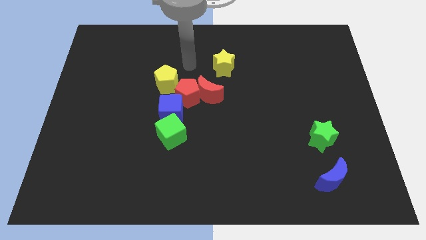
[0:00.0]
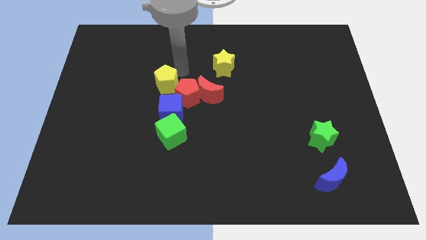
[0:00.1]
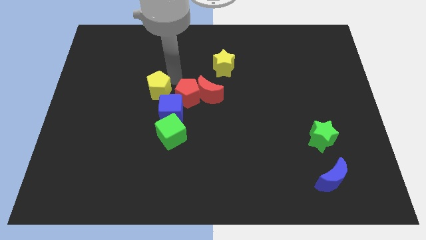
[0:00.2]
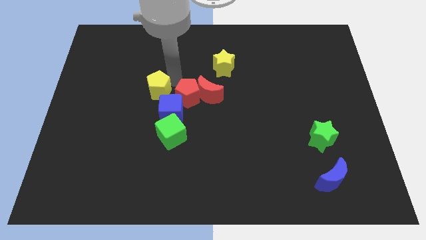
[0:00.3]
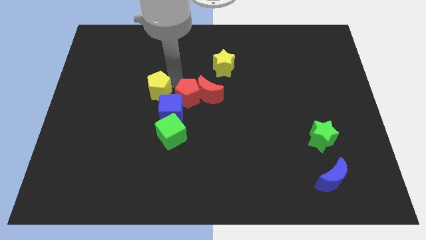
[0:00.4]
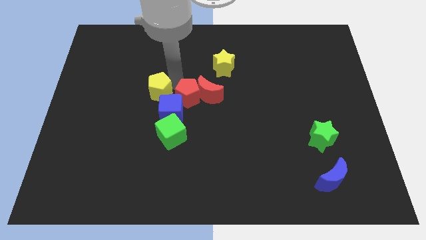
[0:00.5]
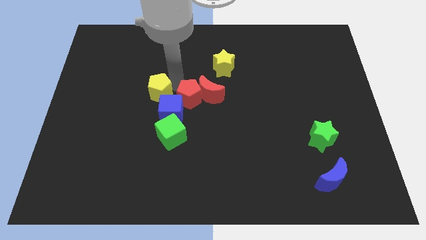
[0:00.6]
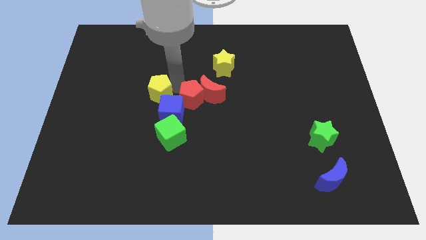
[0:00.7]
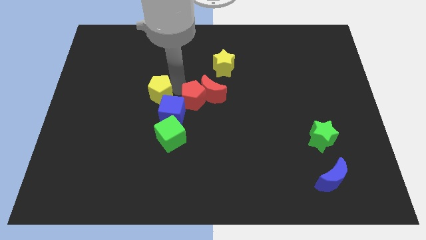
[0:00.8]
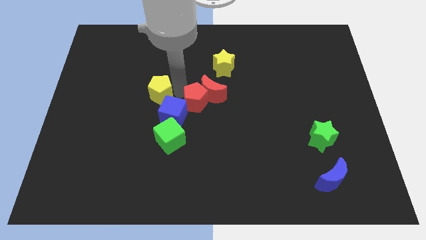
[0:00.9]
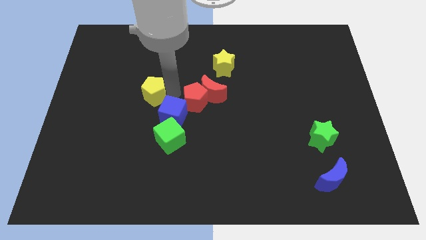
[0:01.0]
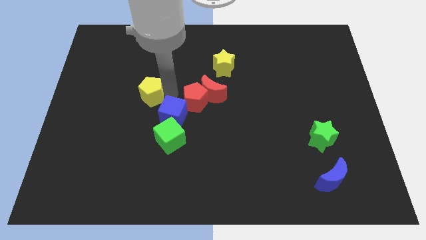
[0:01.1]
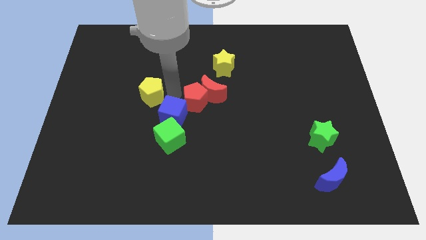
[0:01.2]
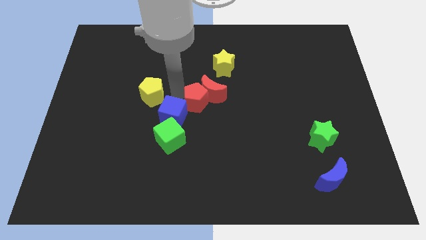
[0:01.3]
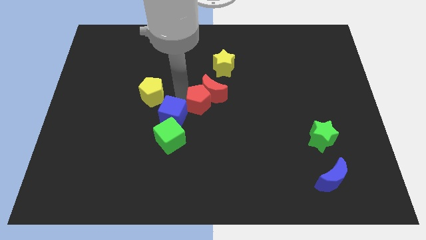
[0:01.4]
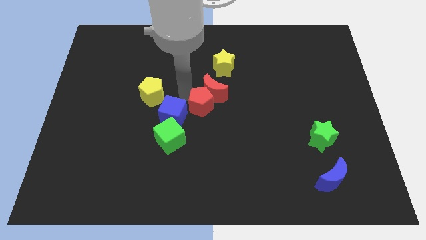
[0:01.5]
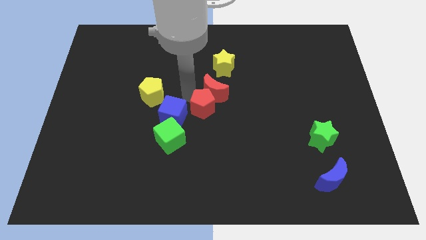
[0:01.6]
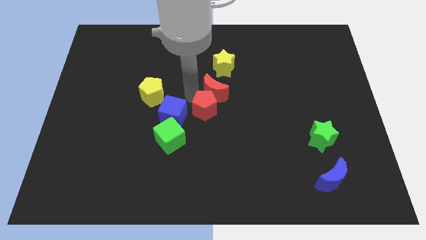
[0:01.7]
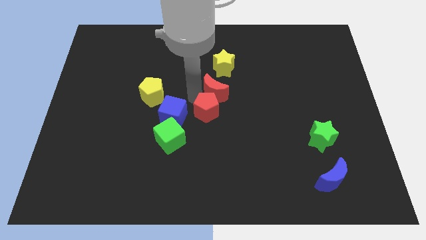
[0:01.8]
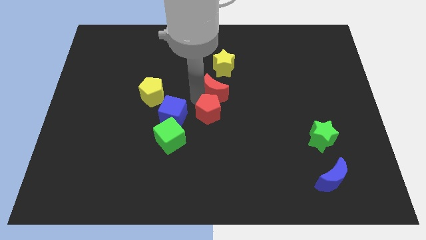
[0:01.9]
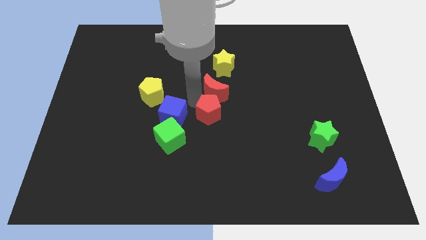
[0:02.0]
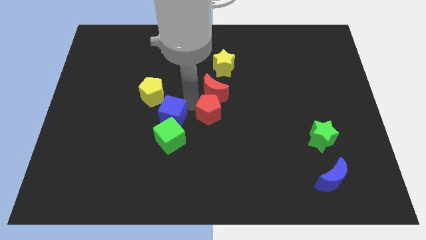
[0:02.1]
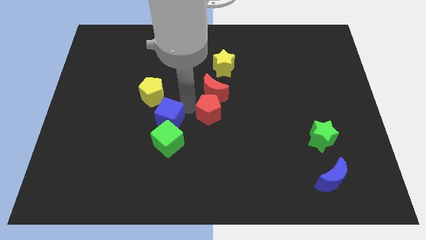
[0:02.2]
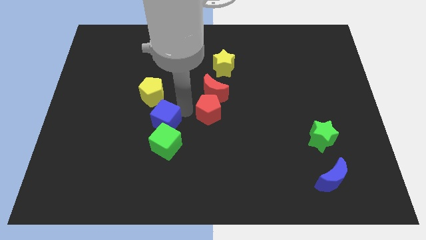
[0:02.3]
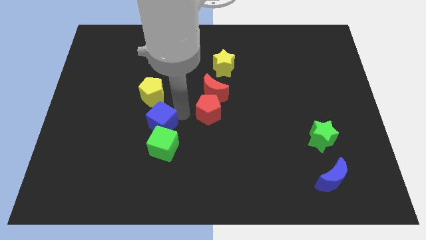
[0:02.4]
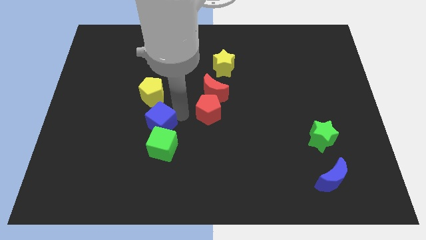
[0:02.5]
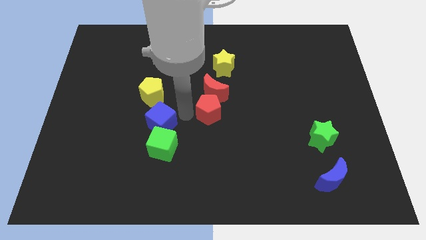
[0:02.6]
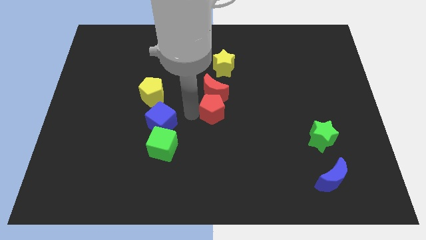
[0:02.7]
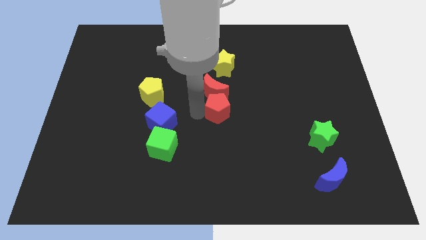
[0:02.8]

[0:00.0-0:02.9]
move the red pentagon away from the clump

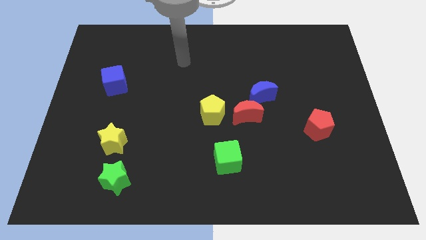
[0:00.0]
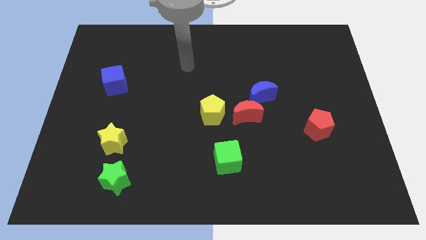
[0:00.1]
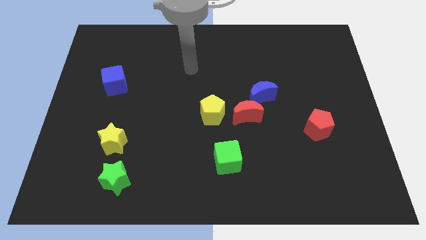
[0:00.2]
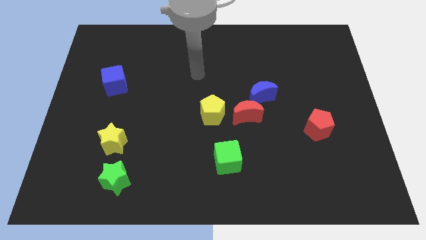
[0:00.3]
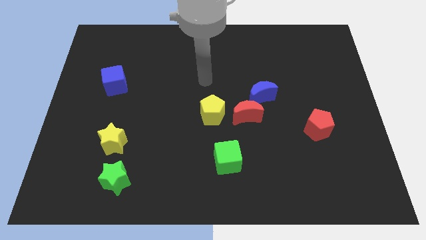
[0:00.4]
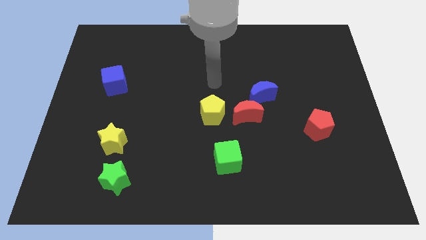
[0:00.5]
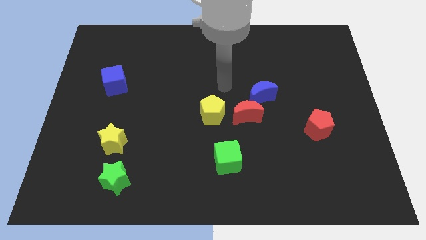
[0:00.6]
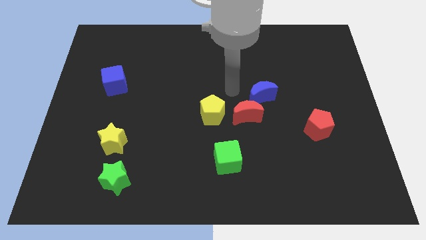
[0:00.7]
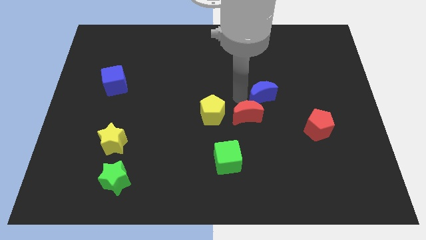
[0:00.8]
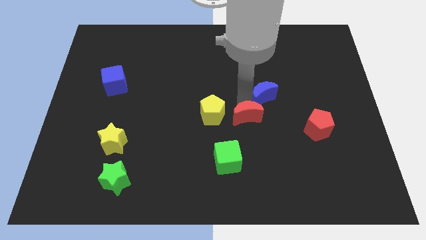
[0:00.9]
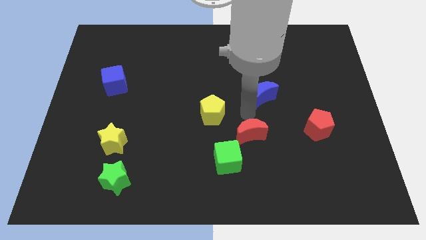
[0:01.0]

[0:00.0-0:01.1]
pull the blue moon apart from the red moon

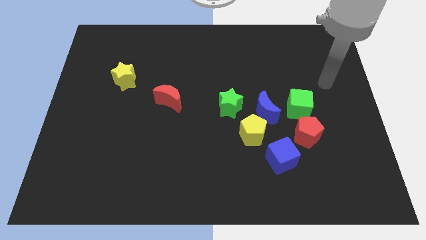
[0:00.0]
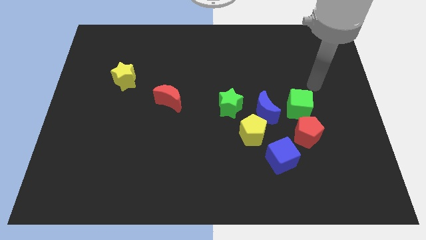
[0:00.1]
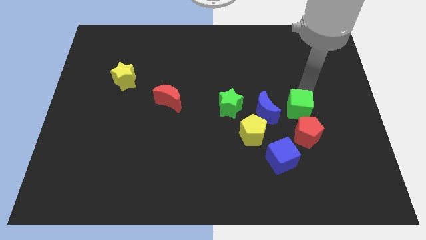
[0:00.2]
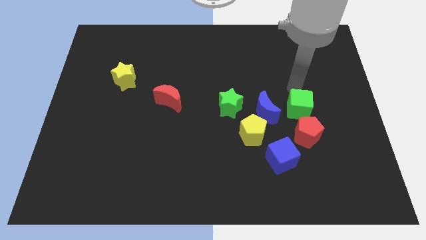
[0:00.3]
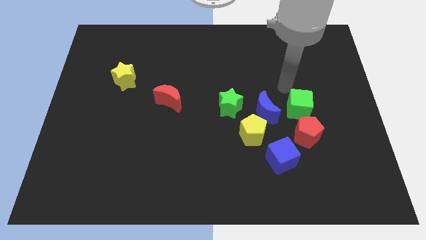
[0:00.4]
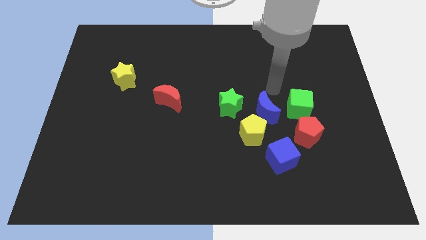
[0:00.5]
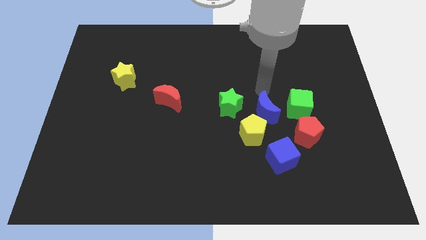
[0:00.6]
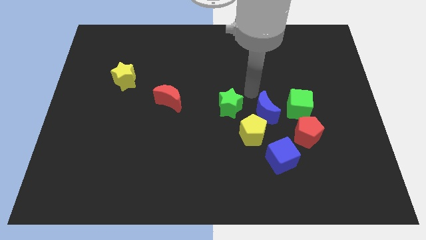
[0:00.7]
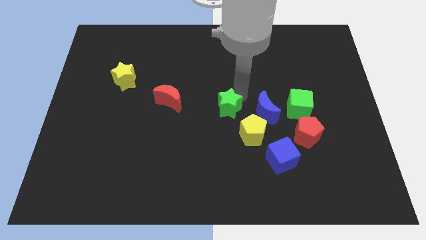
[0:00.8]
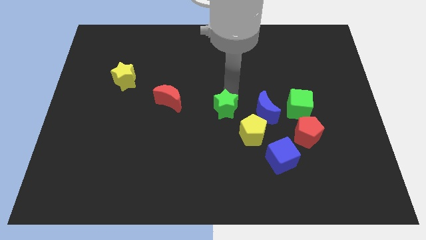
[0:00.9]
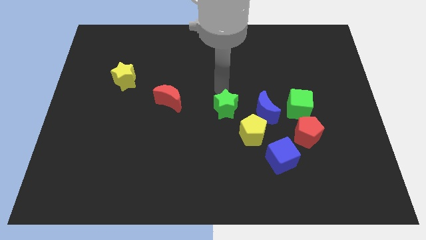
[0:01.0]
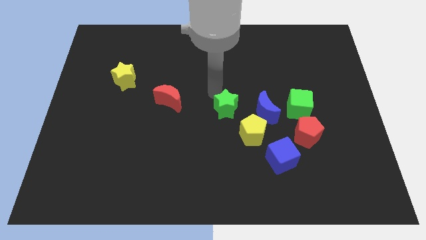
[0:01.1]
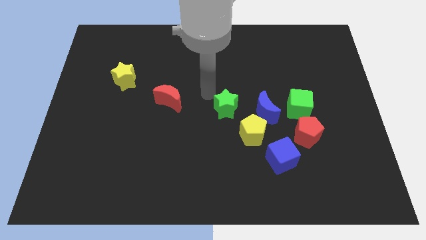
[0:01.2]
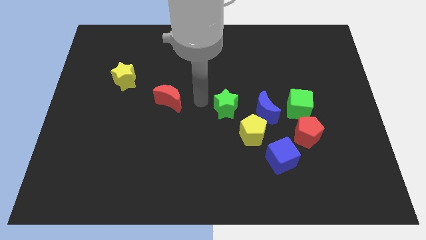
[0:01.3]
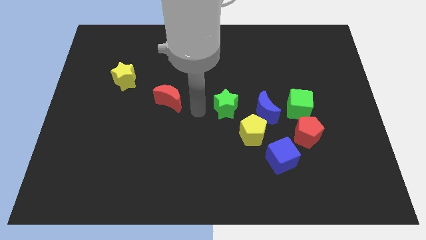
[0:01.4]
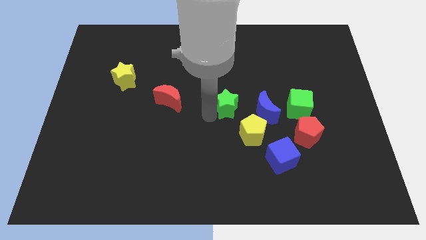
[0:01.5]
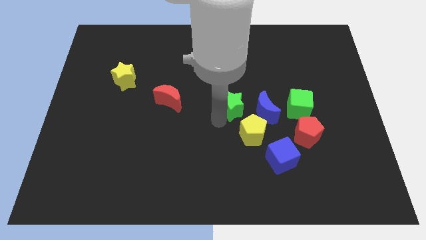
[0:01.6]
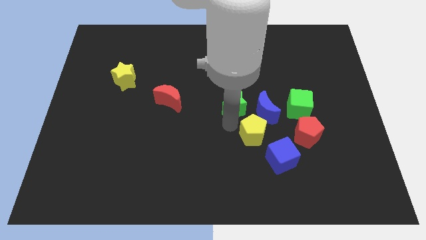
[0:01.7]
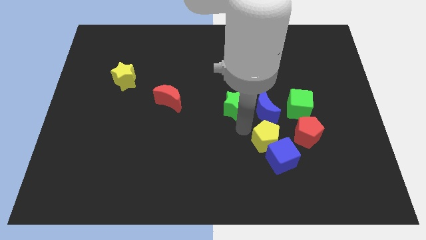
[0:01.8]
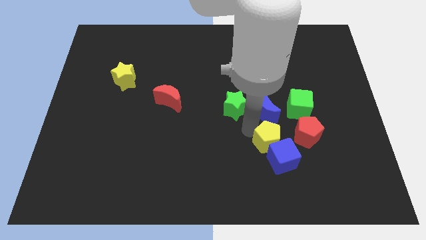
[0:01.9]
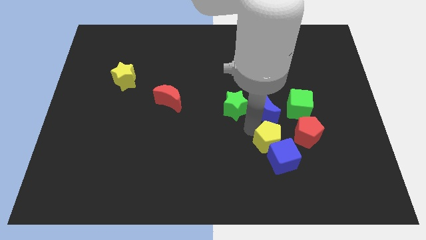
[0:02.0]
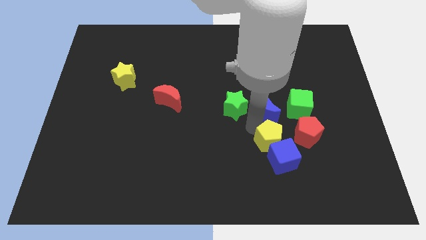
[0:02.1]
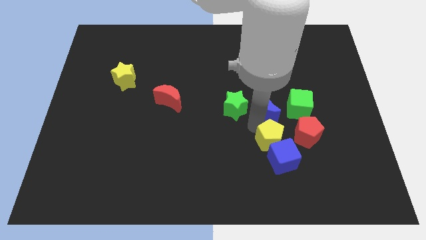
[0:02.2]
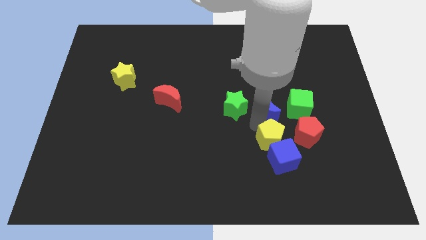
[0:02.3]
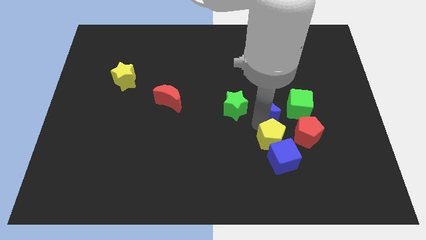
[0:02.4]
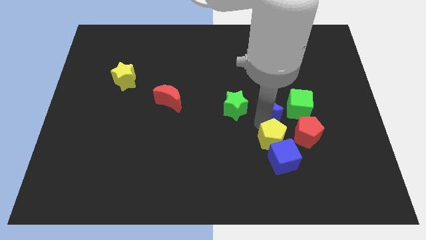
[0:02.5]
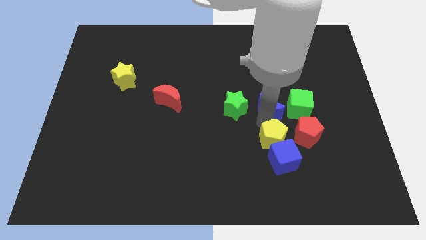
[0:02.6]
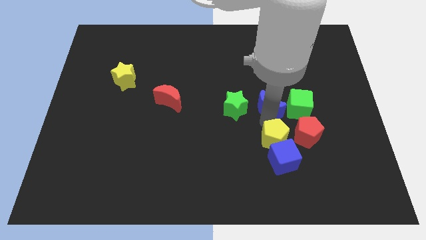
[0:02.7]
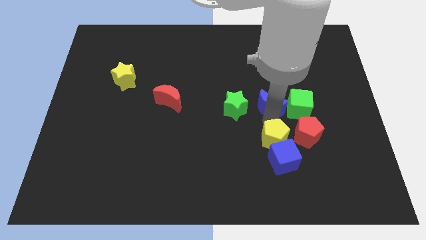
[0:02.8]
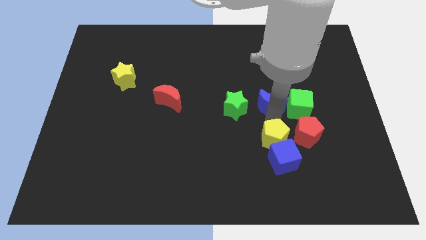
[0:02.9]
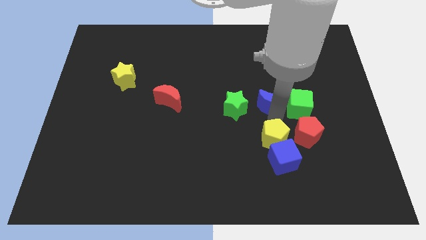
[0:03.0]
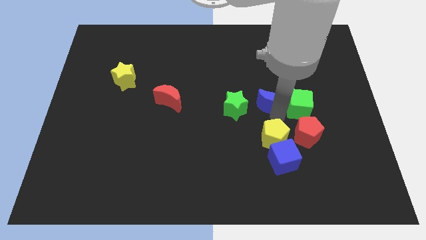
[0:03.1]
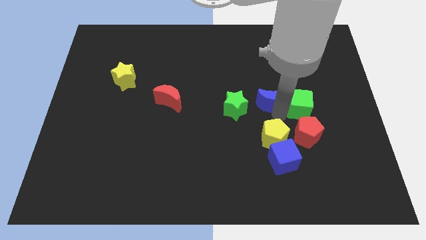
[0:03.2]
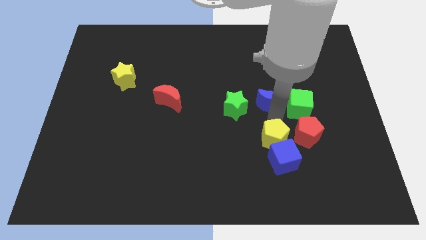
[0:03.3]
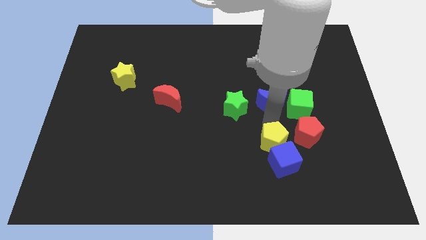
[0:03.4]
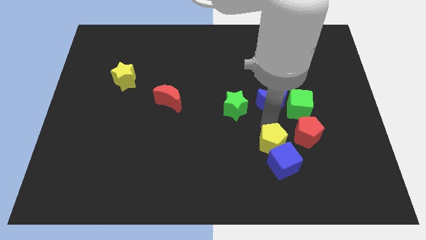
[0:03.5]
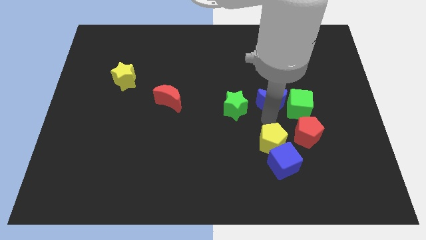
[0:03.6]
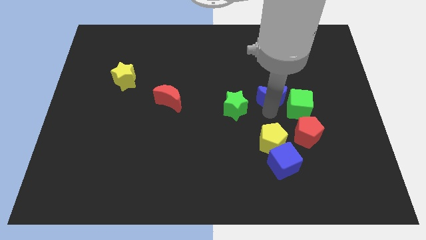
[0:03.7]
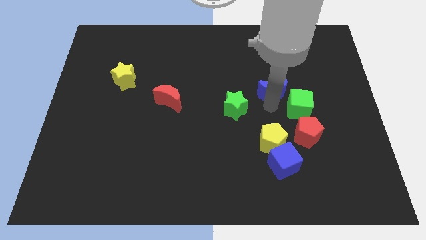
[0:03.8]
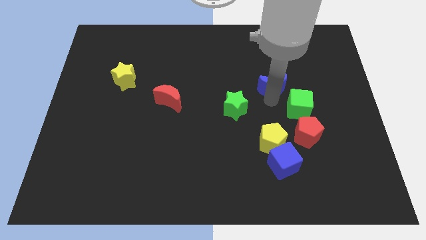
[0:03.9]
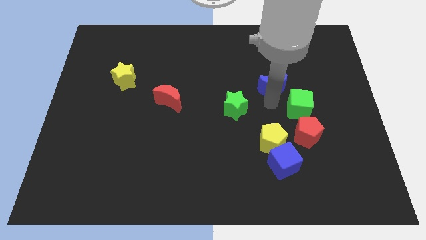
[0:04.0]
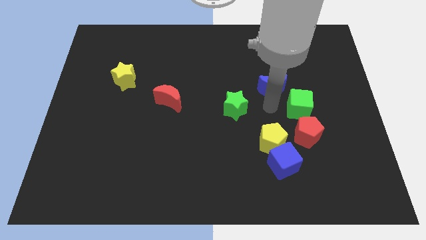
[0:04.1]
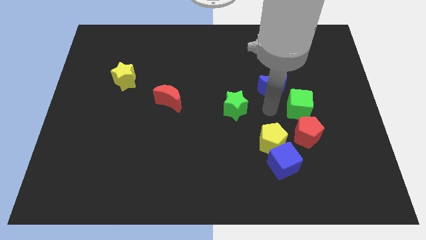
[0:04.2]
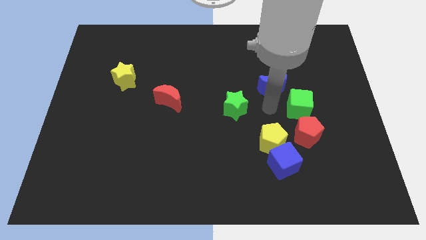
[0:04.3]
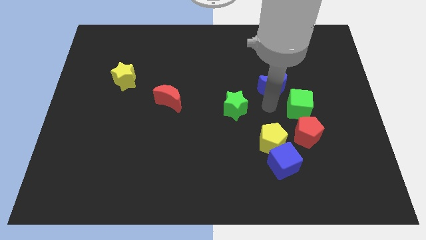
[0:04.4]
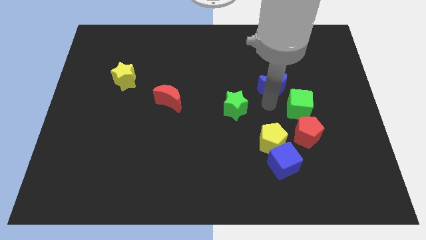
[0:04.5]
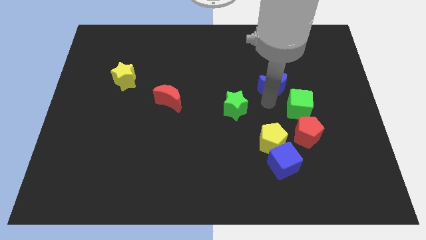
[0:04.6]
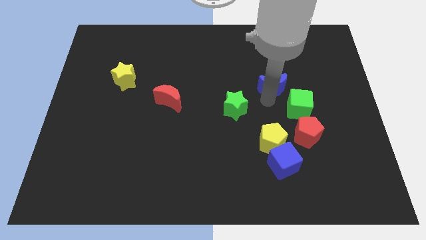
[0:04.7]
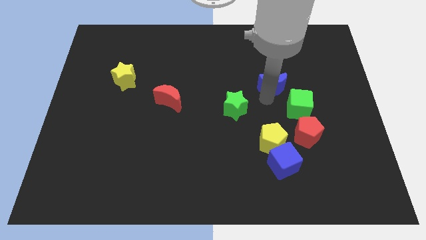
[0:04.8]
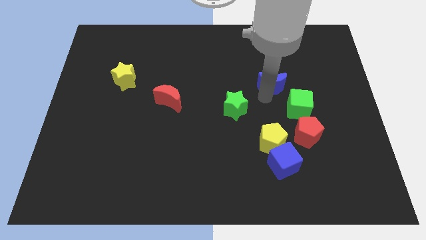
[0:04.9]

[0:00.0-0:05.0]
separate the blue moon from the group

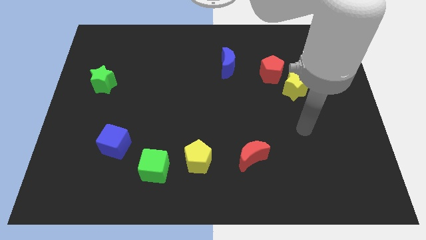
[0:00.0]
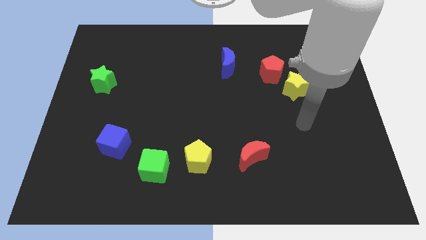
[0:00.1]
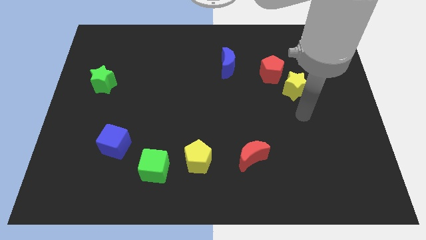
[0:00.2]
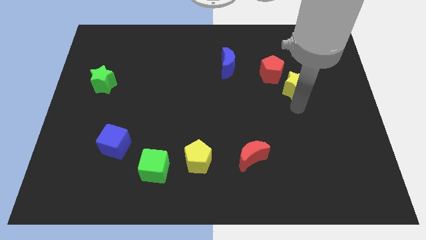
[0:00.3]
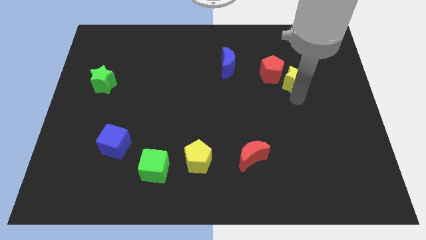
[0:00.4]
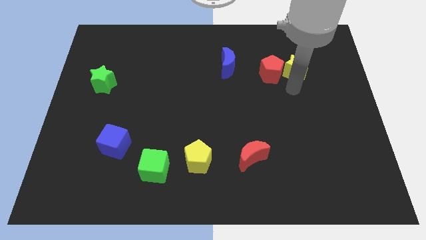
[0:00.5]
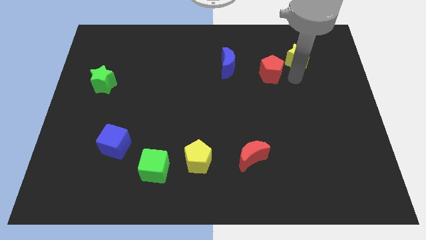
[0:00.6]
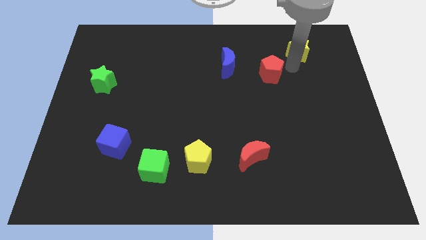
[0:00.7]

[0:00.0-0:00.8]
separate the red pentagon from the yellow star
